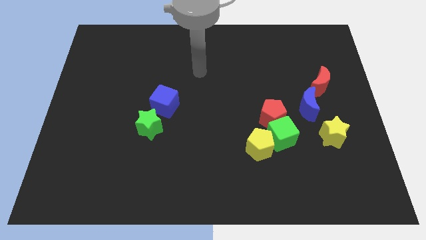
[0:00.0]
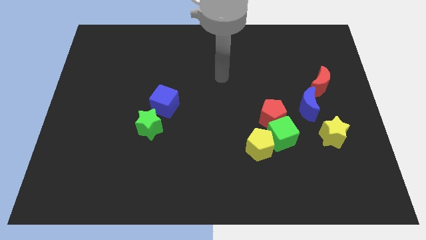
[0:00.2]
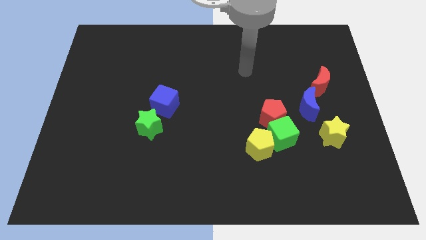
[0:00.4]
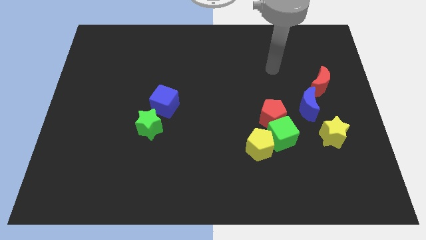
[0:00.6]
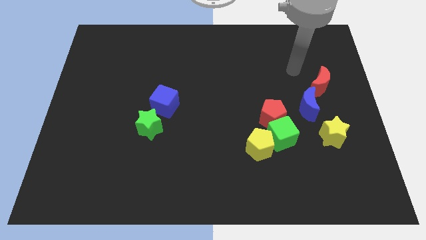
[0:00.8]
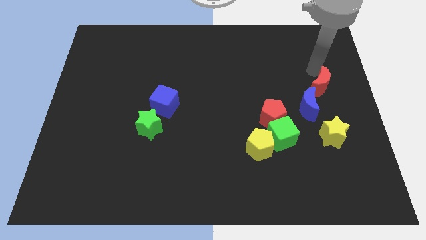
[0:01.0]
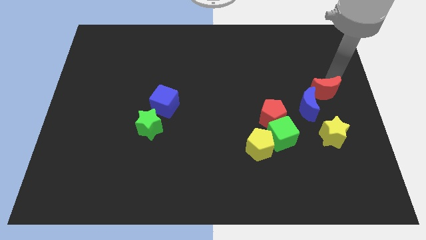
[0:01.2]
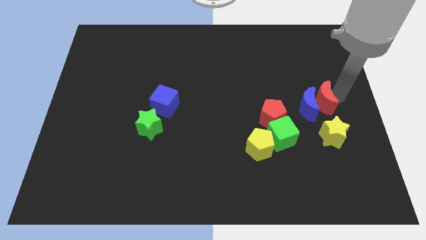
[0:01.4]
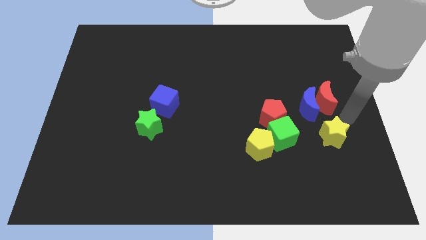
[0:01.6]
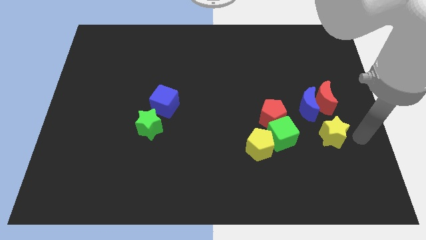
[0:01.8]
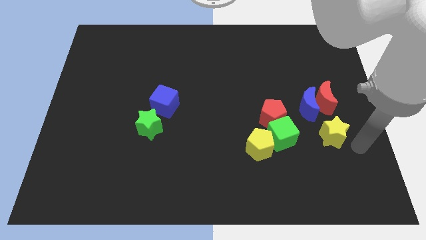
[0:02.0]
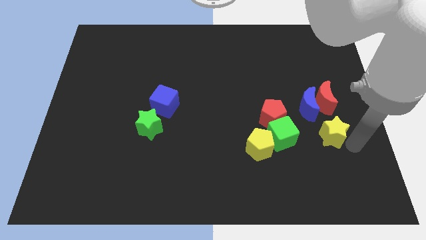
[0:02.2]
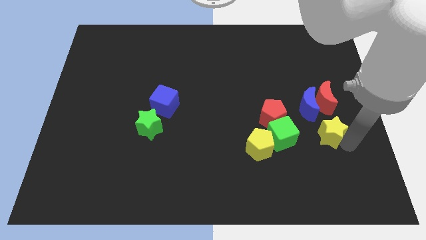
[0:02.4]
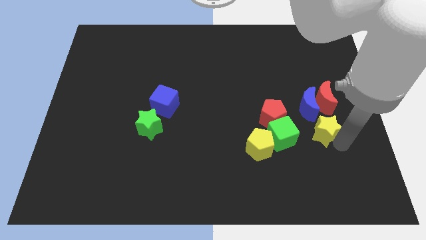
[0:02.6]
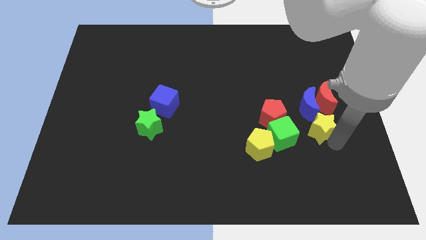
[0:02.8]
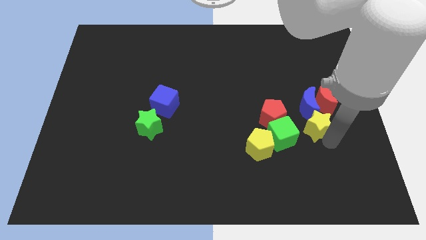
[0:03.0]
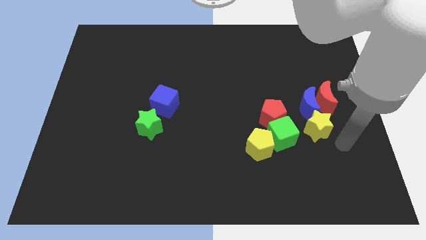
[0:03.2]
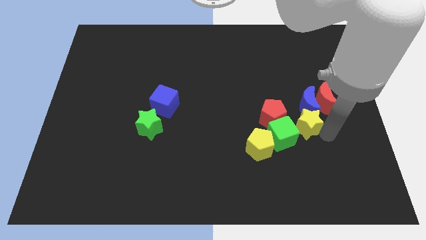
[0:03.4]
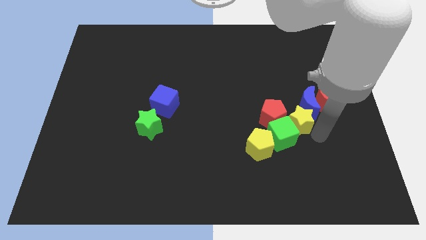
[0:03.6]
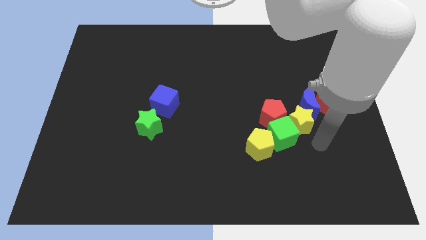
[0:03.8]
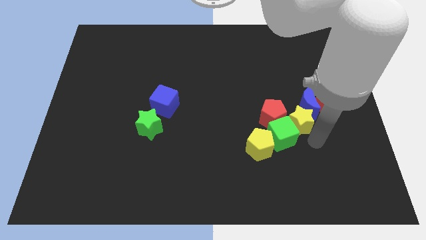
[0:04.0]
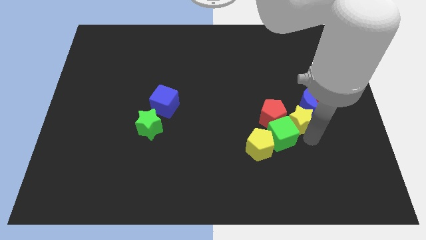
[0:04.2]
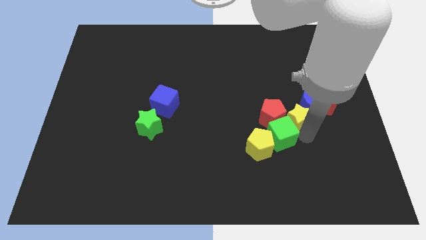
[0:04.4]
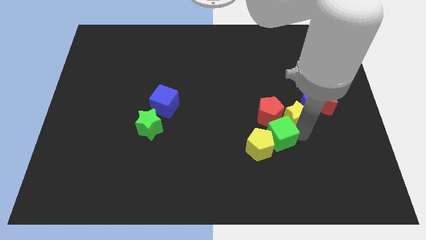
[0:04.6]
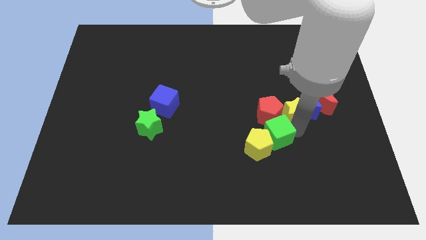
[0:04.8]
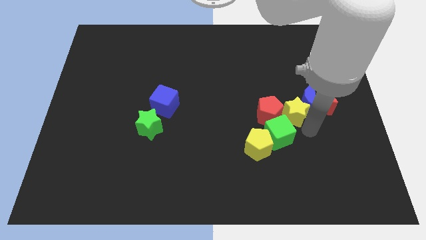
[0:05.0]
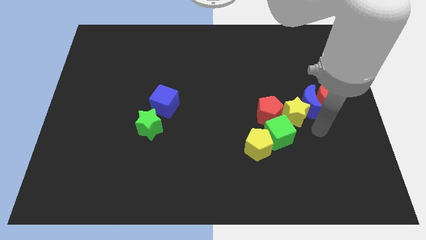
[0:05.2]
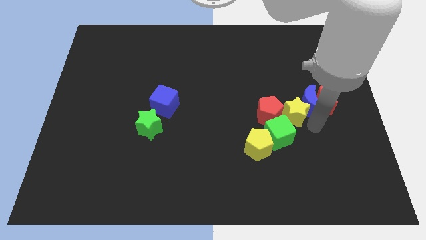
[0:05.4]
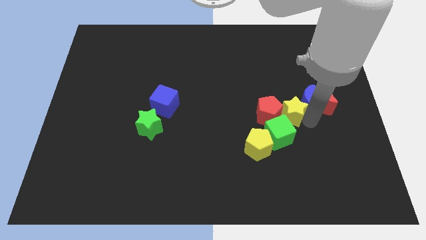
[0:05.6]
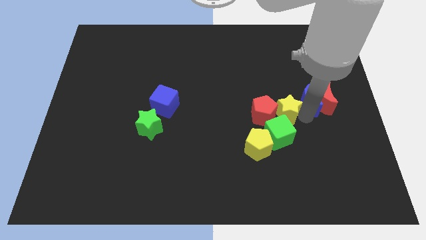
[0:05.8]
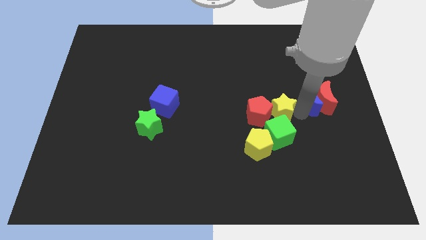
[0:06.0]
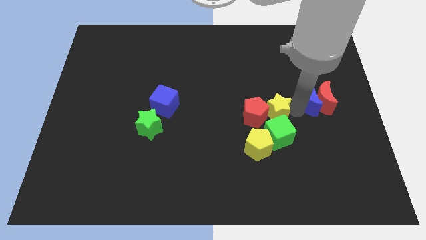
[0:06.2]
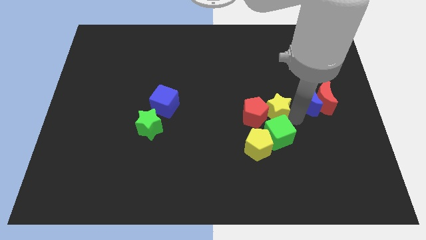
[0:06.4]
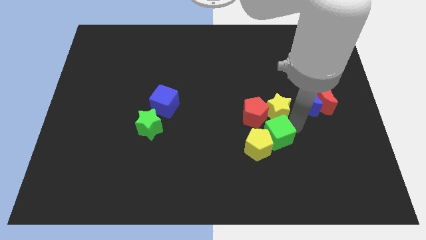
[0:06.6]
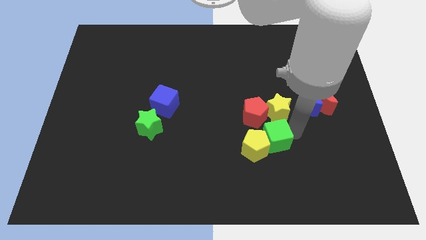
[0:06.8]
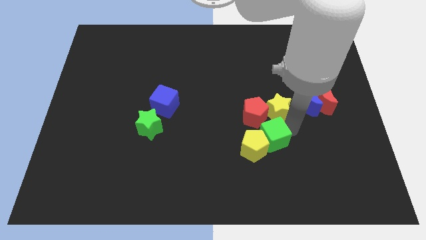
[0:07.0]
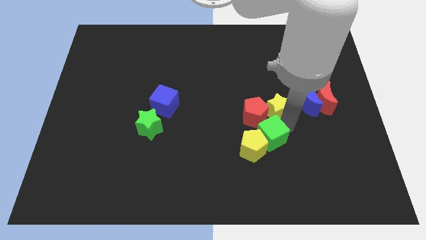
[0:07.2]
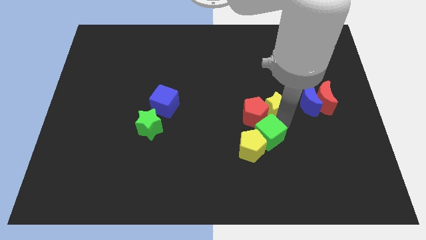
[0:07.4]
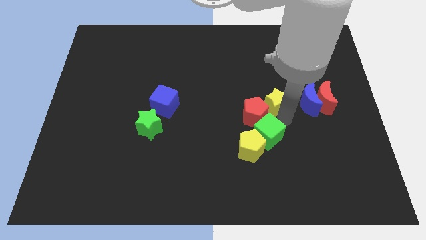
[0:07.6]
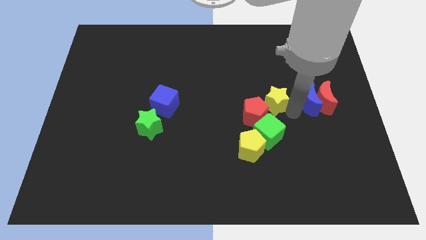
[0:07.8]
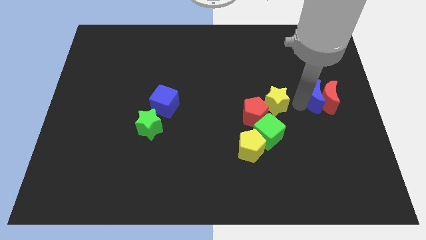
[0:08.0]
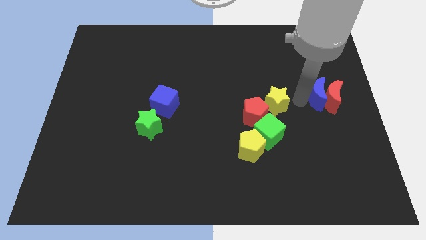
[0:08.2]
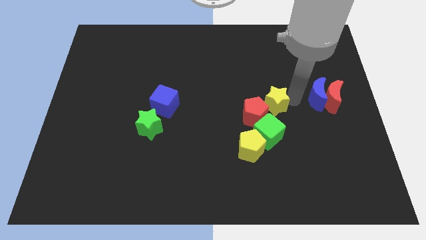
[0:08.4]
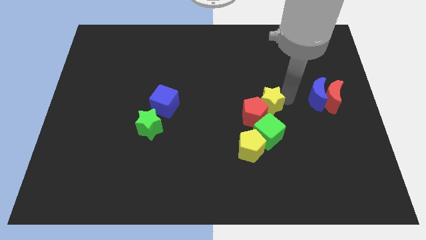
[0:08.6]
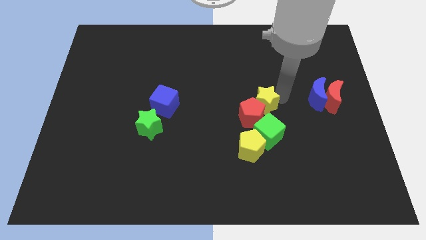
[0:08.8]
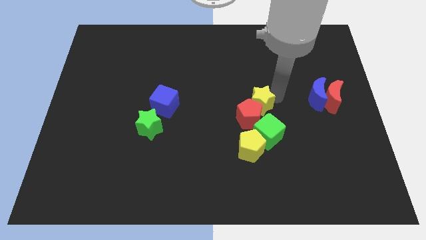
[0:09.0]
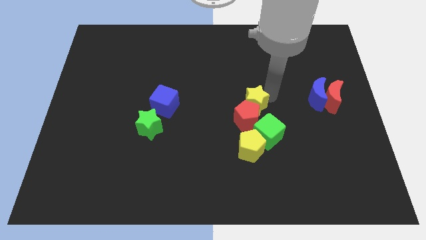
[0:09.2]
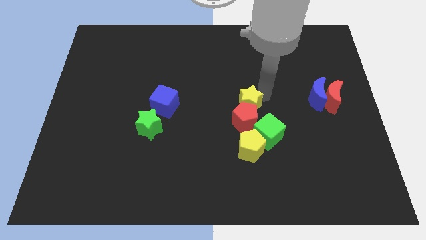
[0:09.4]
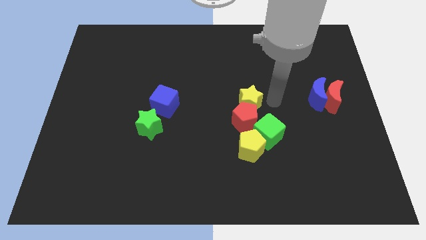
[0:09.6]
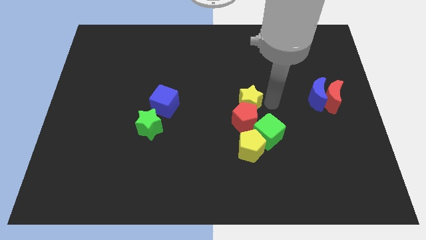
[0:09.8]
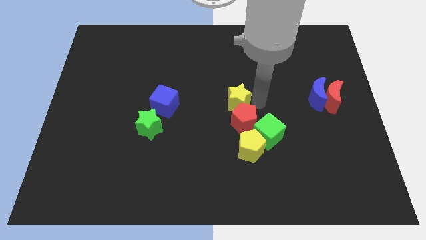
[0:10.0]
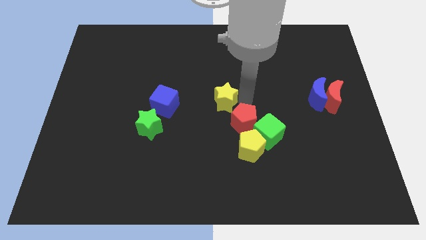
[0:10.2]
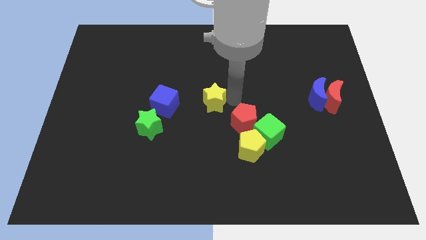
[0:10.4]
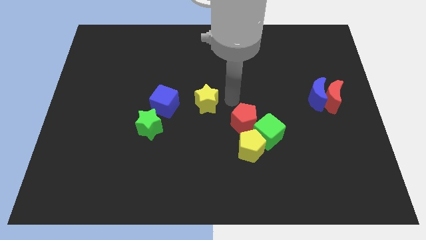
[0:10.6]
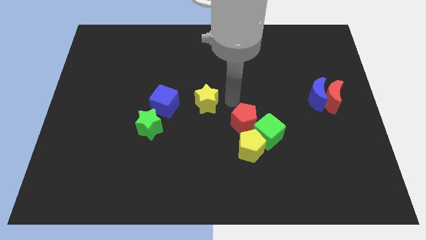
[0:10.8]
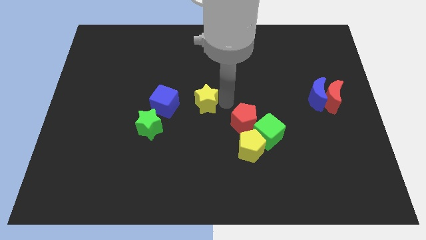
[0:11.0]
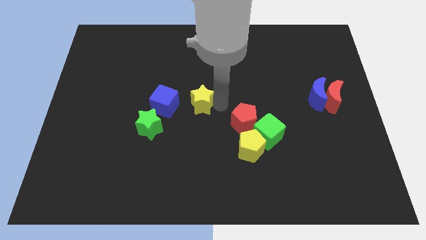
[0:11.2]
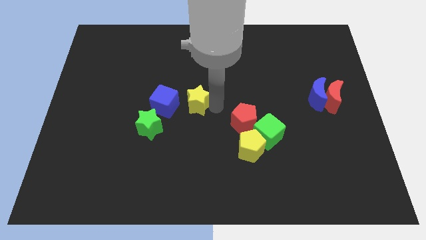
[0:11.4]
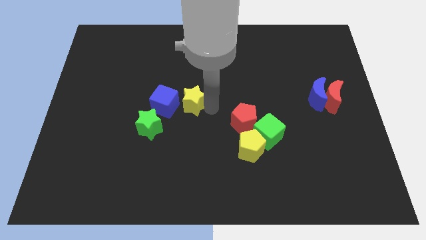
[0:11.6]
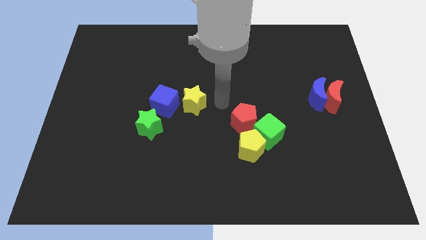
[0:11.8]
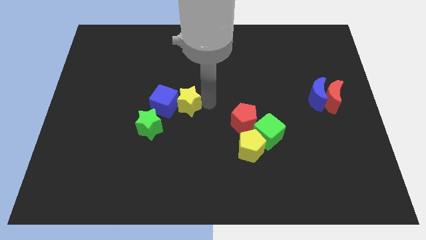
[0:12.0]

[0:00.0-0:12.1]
put the yellow star next to the blue cube

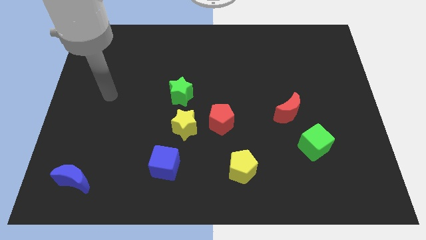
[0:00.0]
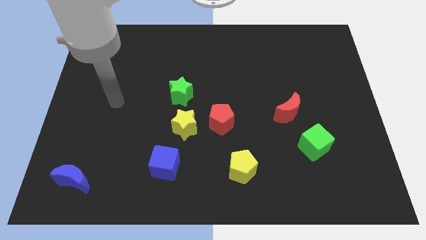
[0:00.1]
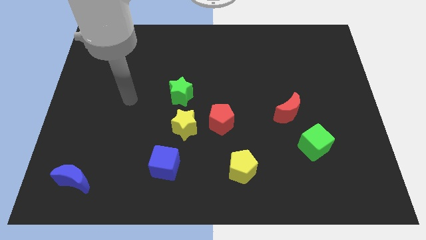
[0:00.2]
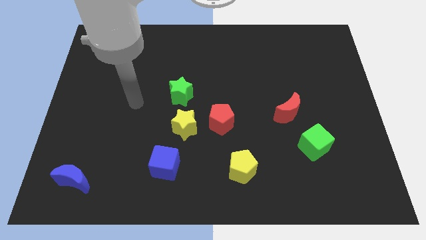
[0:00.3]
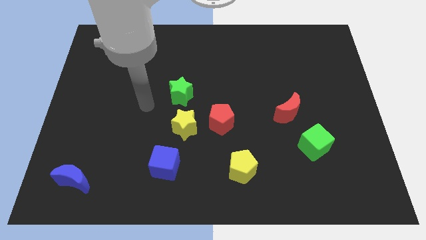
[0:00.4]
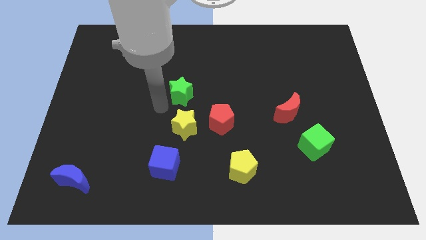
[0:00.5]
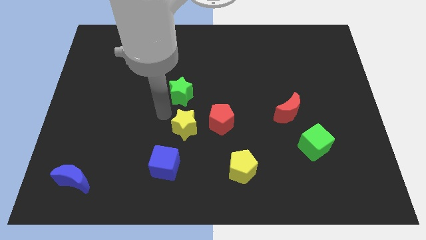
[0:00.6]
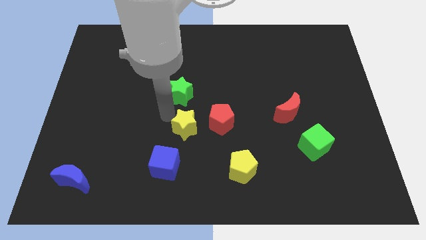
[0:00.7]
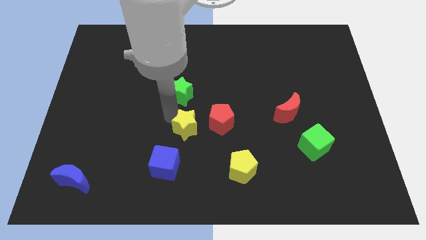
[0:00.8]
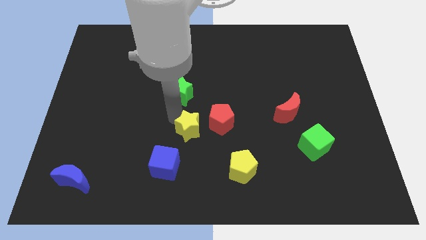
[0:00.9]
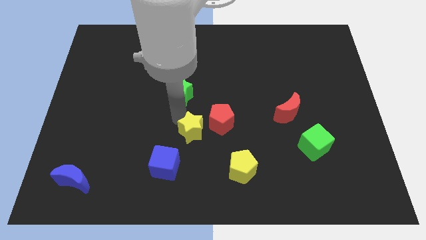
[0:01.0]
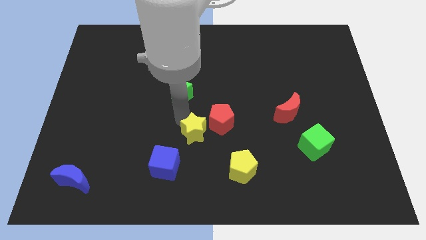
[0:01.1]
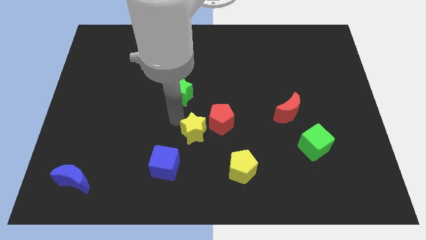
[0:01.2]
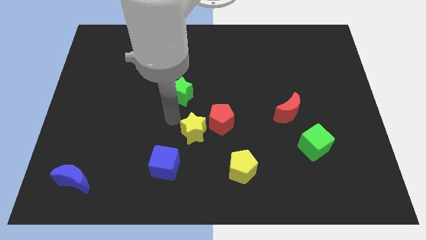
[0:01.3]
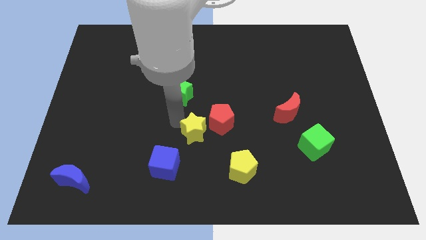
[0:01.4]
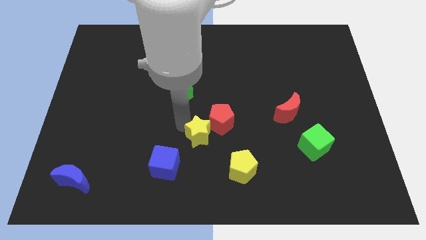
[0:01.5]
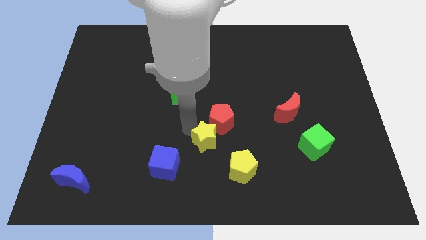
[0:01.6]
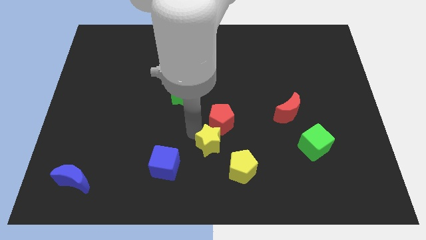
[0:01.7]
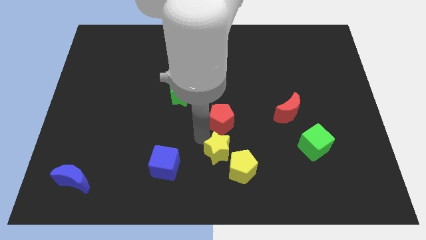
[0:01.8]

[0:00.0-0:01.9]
move the yellow star next to the yellow pentagon
